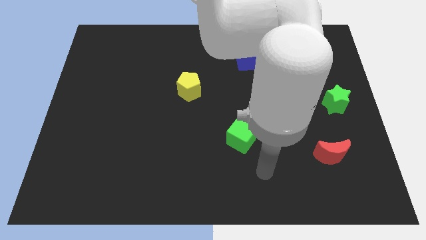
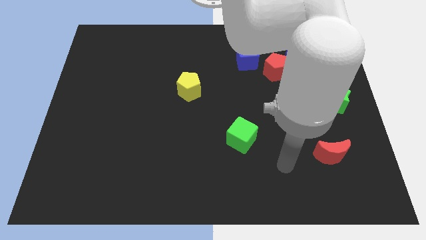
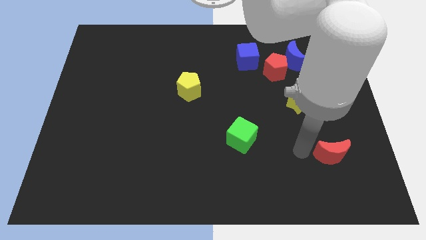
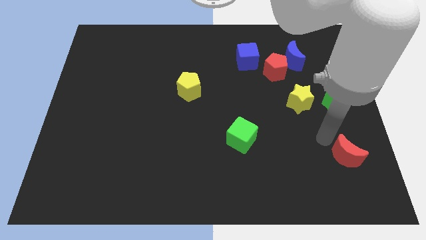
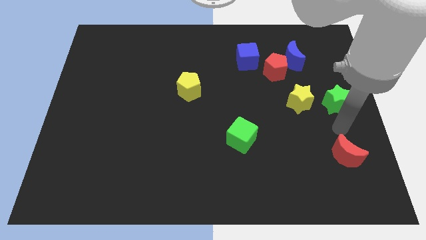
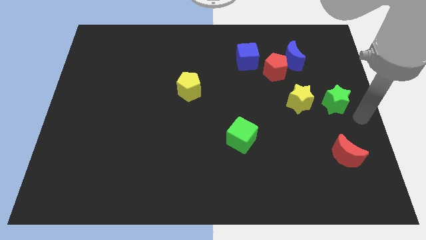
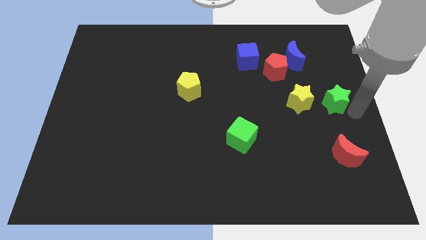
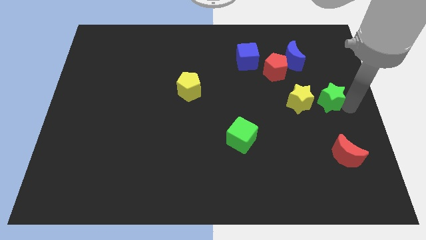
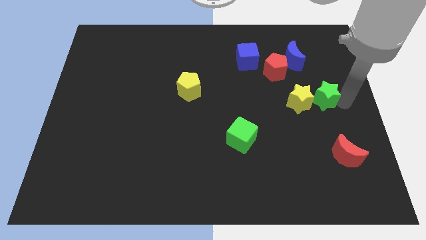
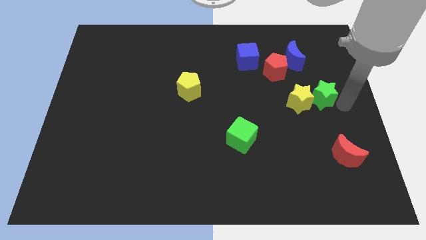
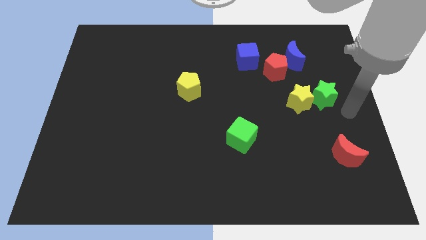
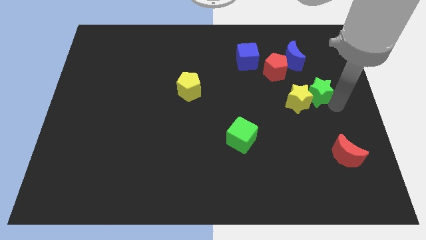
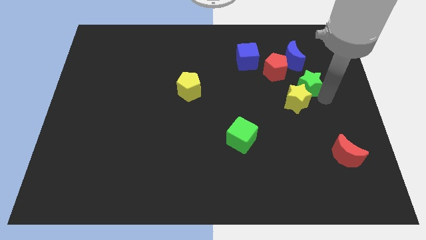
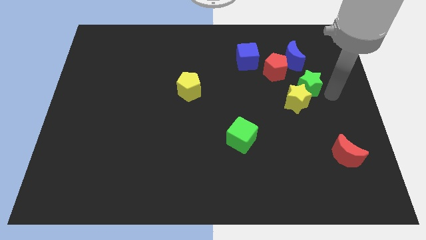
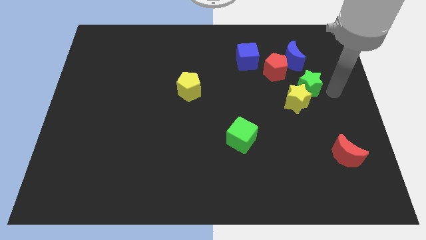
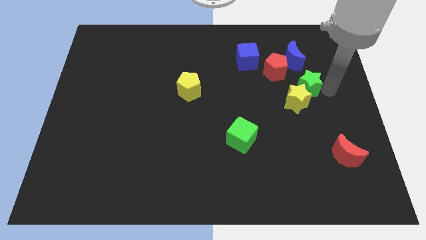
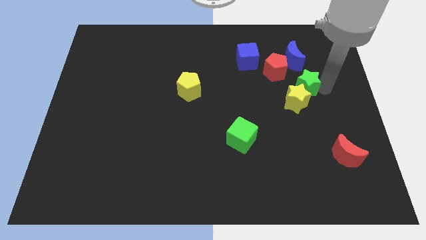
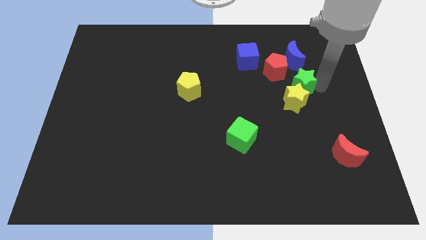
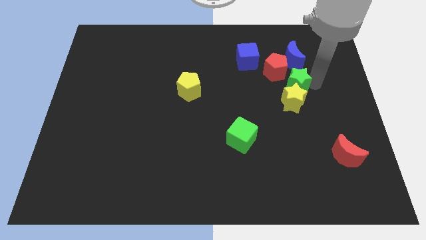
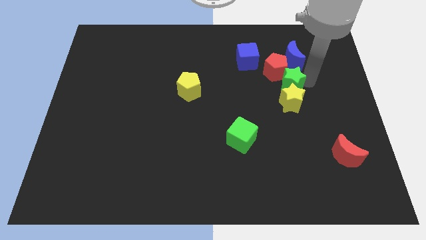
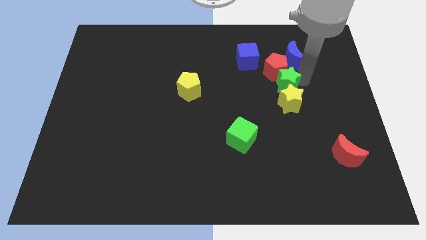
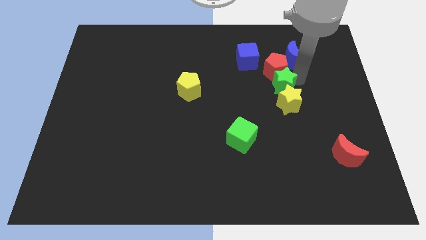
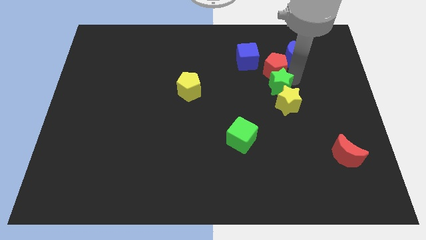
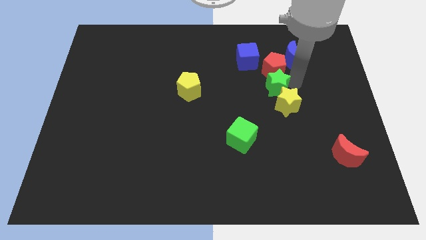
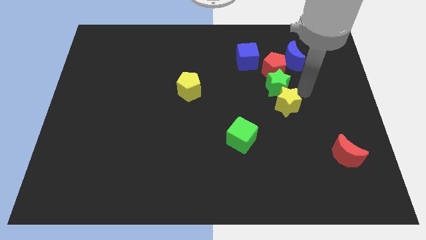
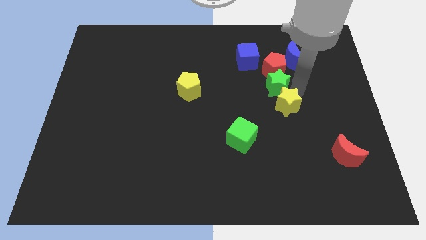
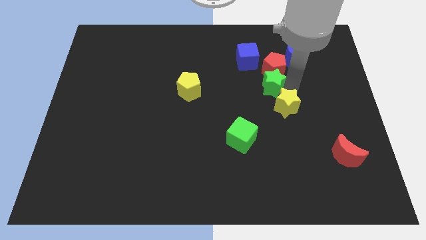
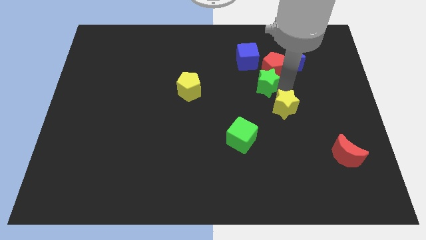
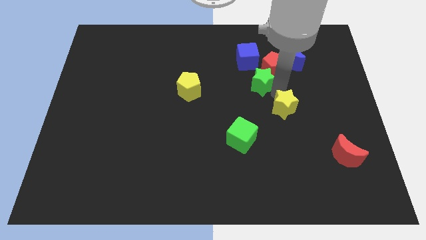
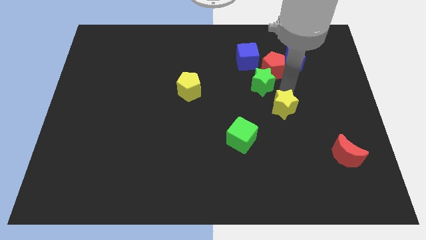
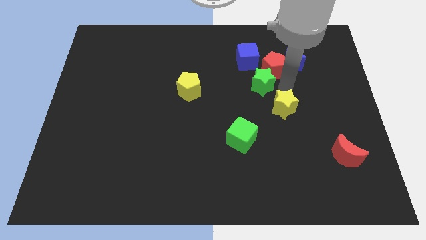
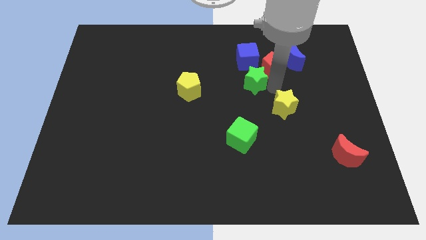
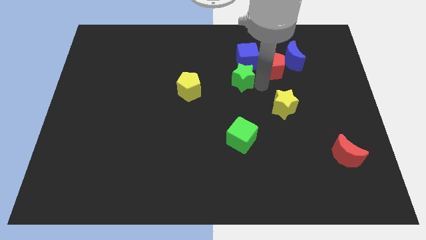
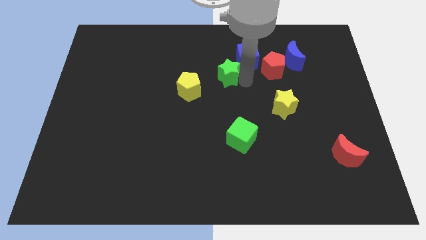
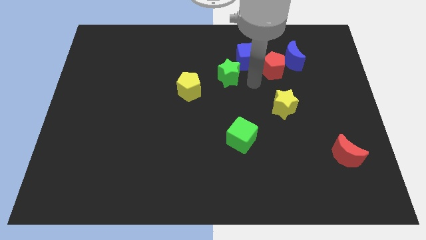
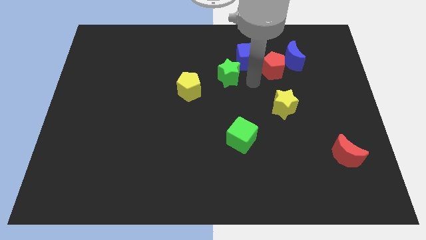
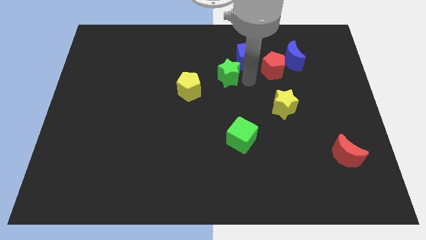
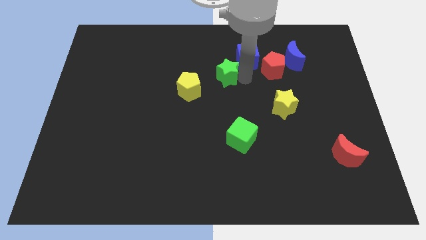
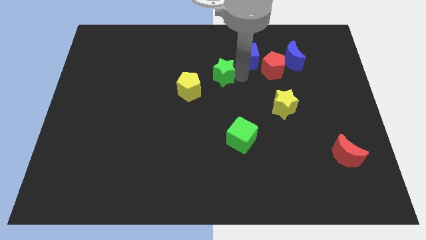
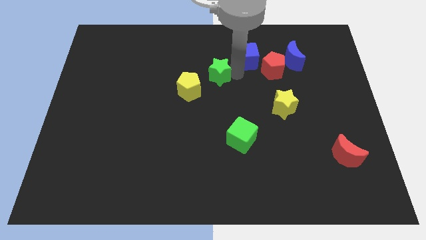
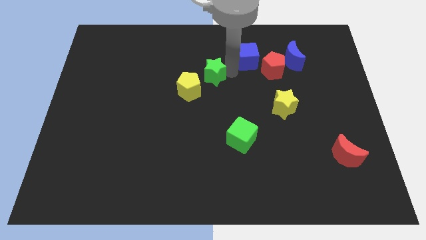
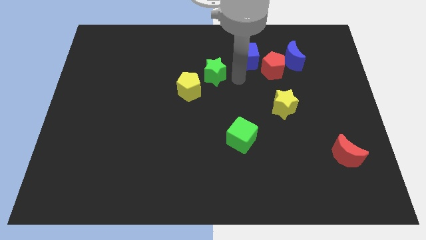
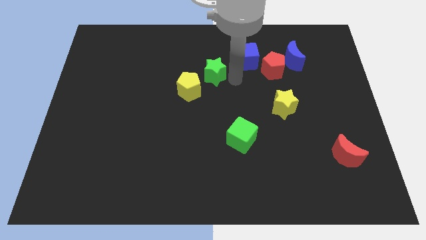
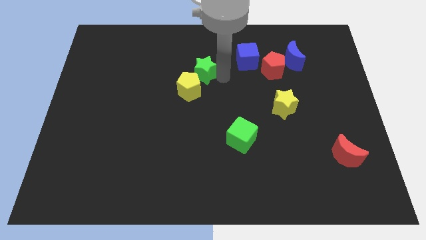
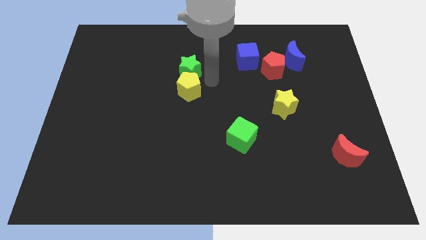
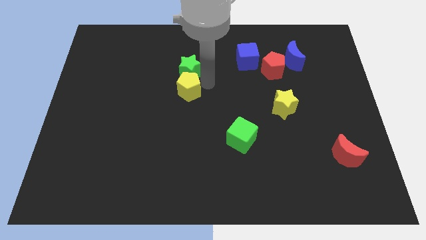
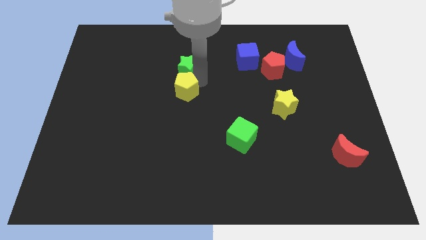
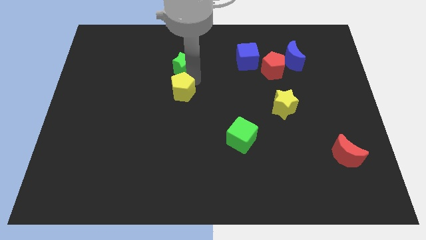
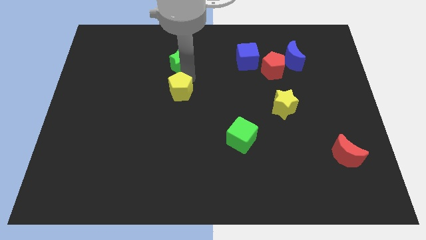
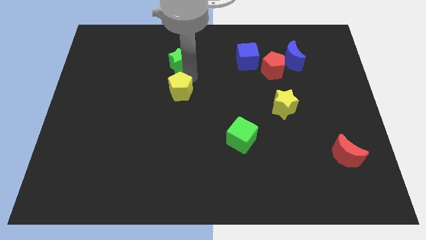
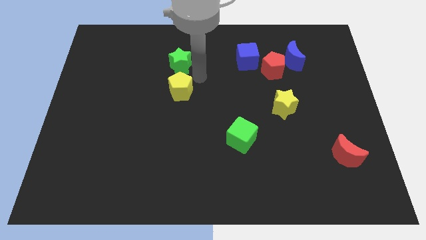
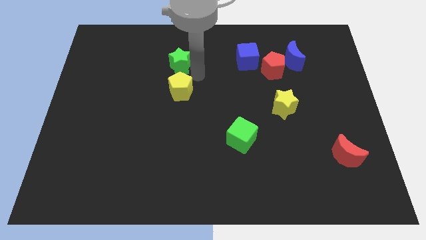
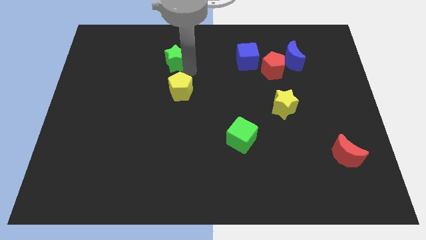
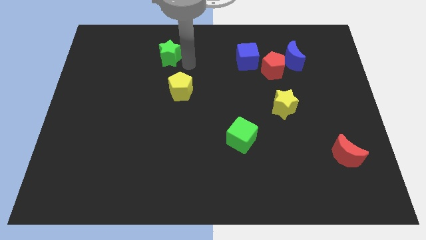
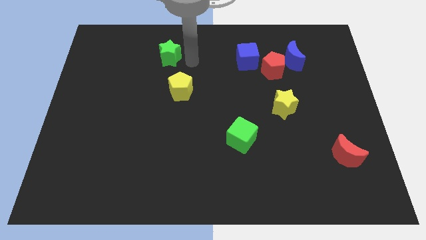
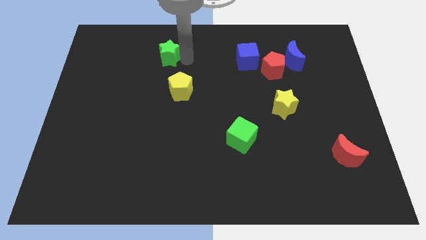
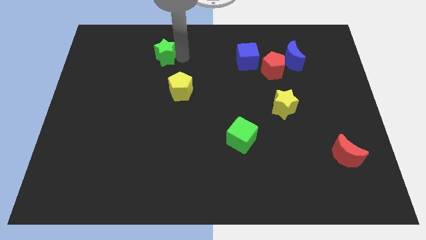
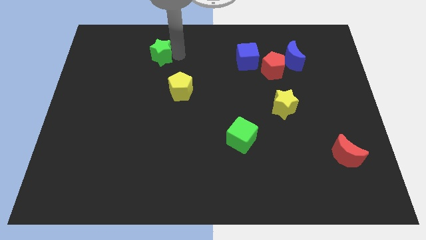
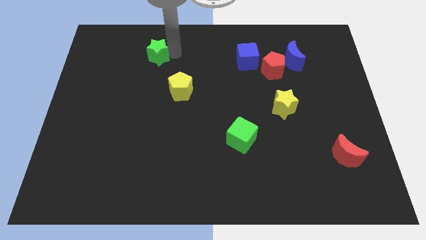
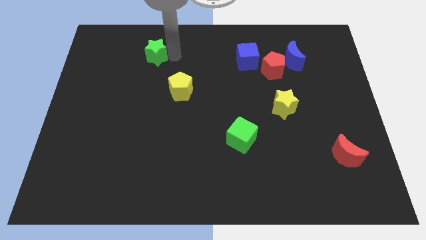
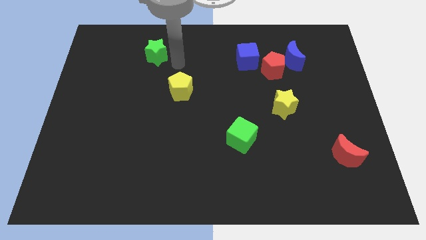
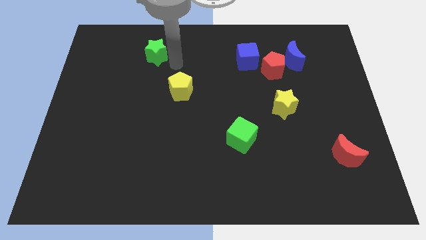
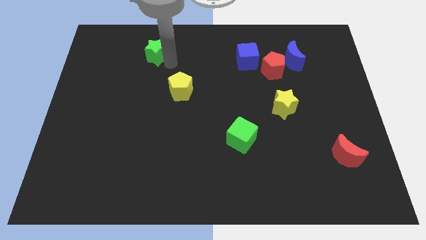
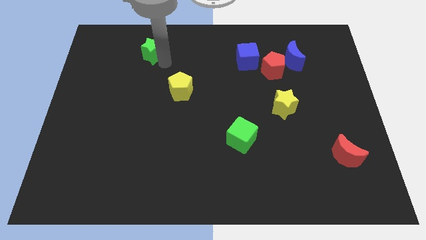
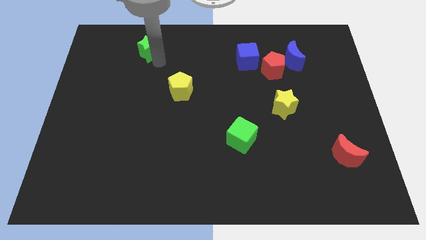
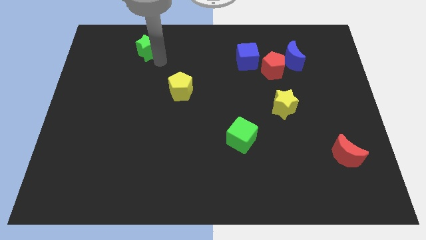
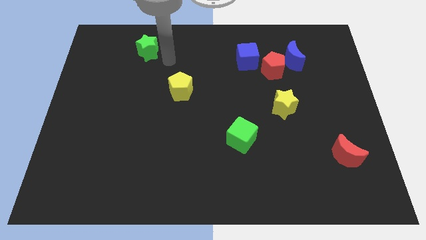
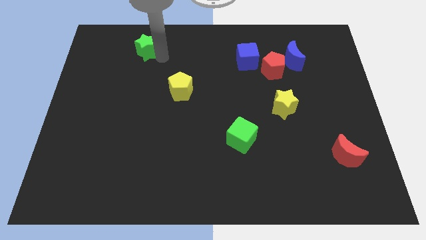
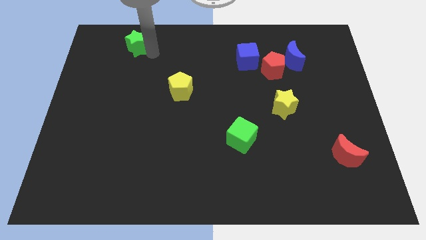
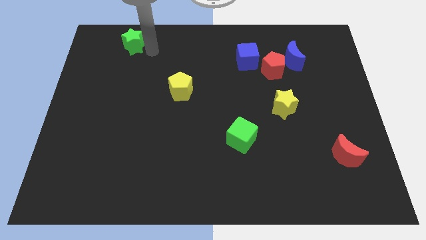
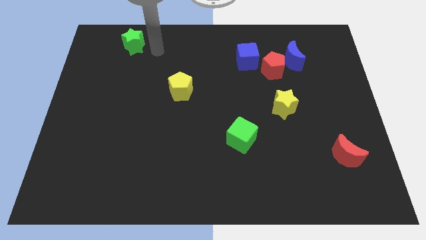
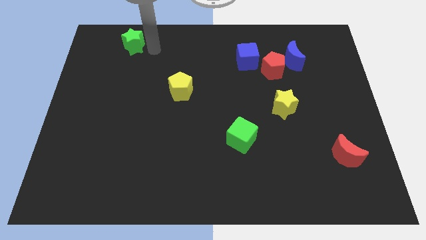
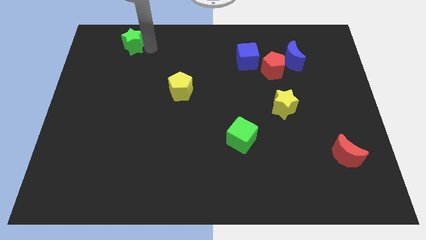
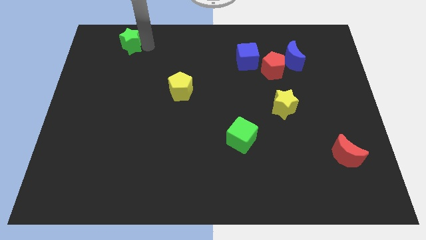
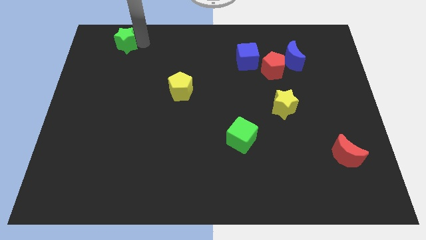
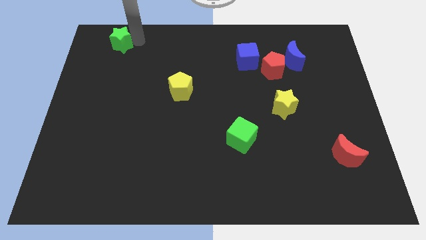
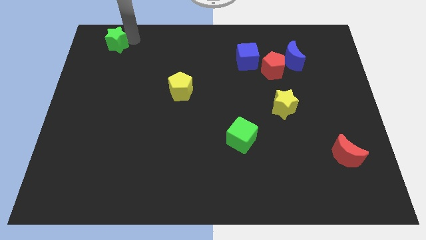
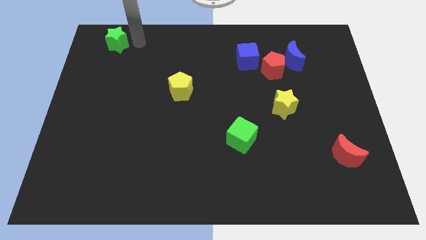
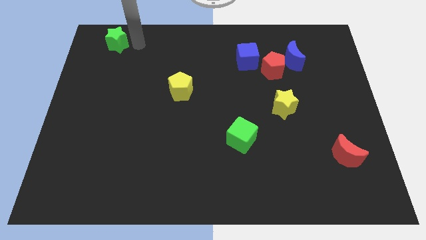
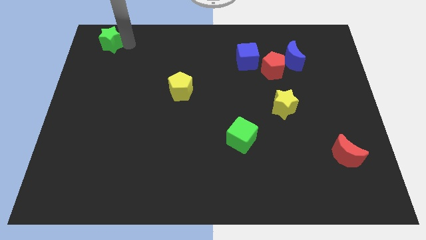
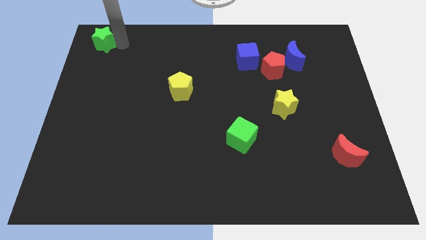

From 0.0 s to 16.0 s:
put the green star to the upper left corner
